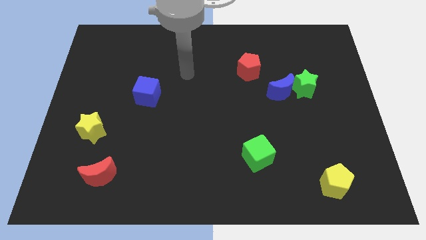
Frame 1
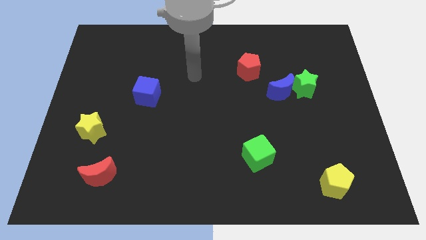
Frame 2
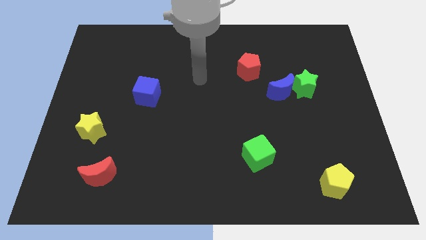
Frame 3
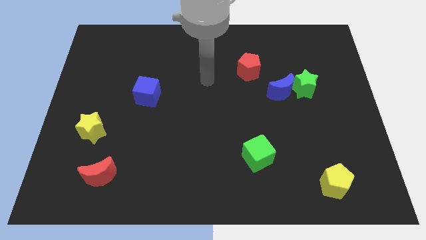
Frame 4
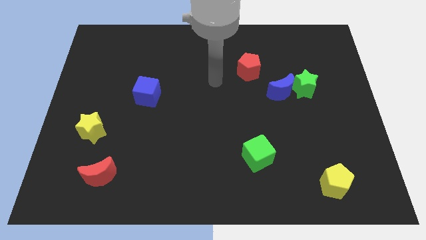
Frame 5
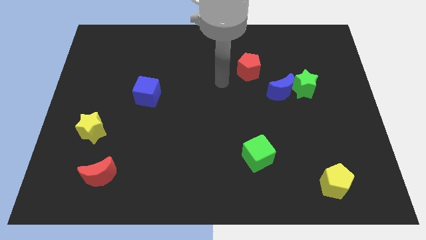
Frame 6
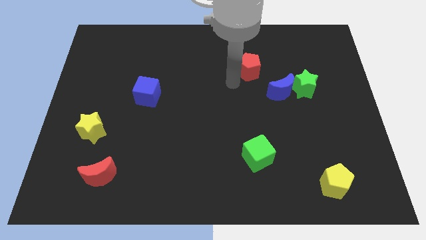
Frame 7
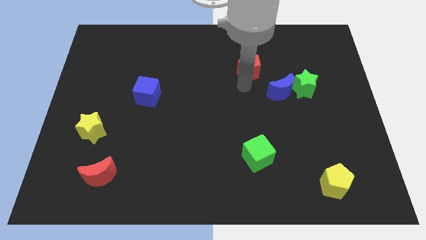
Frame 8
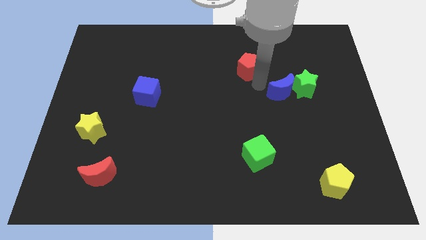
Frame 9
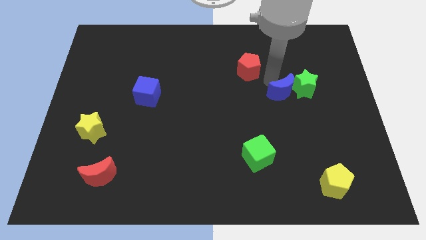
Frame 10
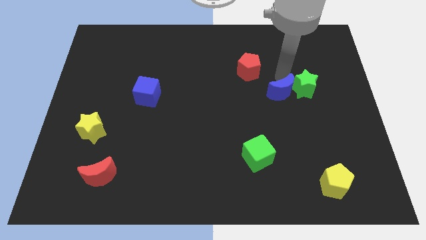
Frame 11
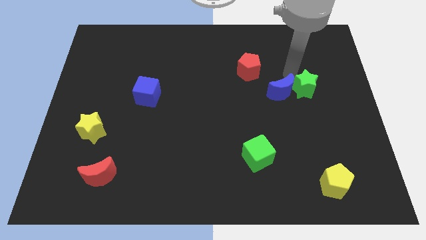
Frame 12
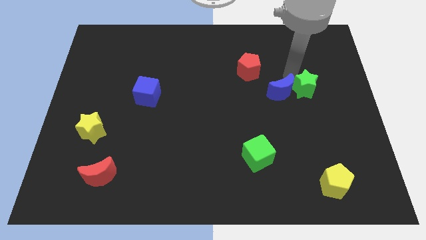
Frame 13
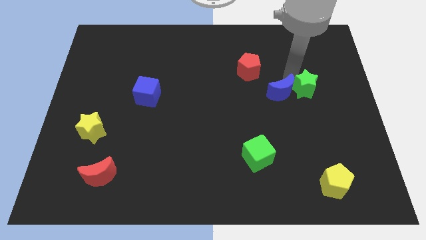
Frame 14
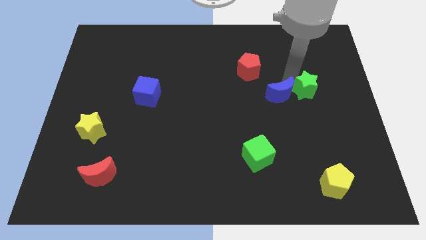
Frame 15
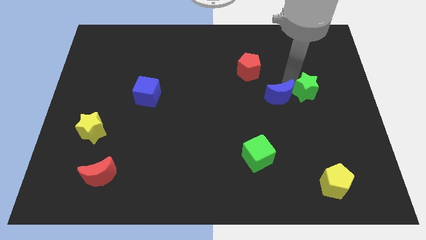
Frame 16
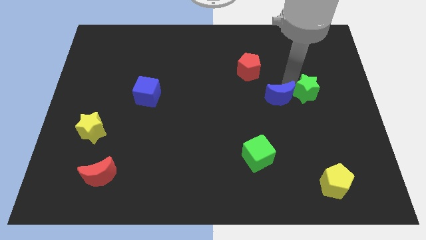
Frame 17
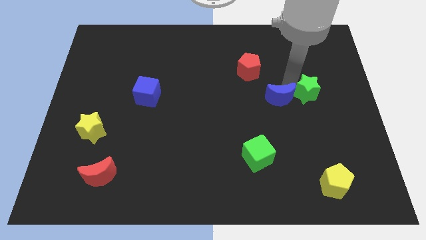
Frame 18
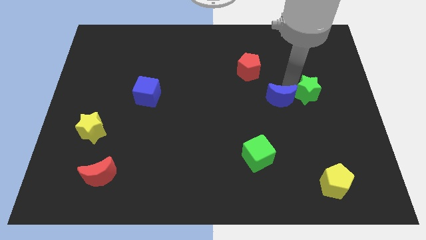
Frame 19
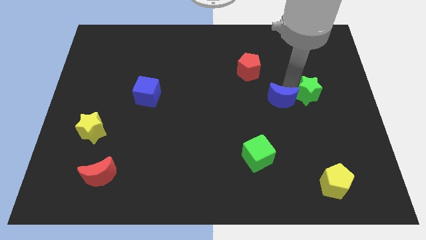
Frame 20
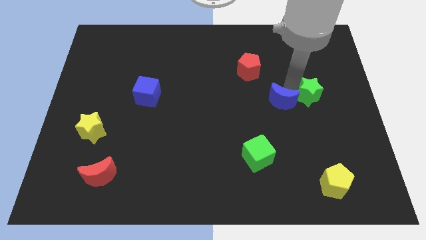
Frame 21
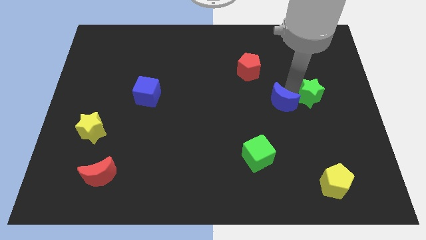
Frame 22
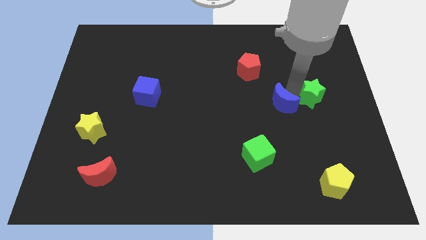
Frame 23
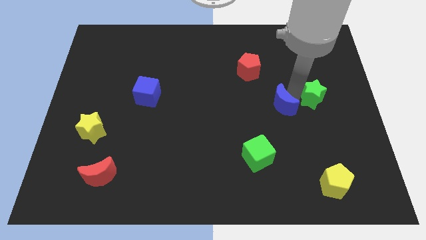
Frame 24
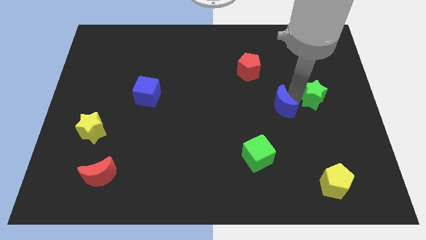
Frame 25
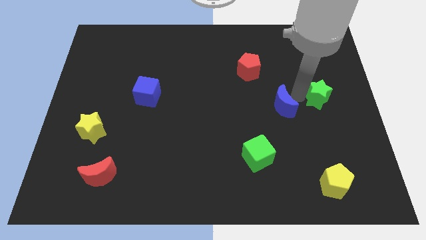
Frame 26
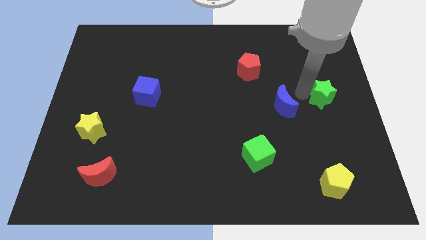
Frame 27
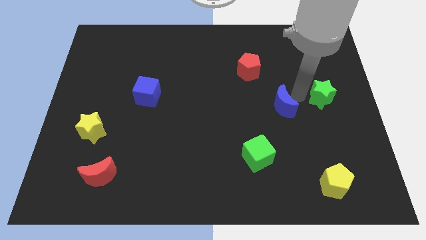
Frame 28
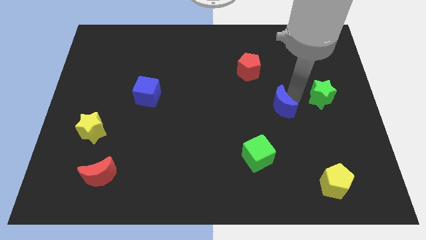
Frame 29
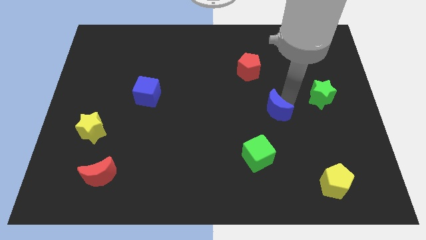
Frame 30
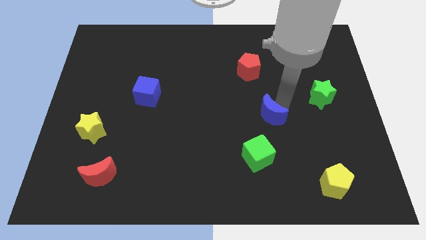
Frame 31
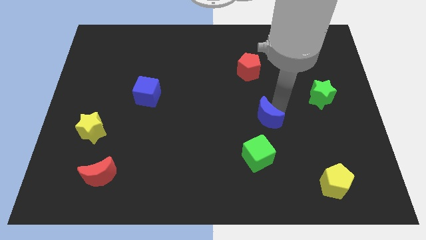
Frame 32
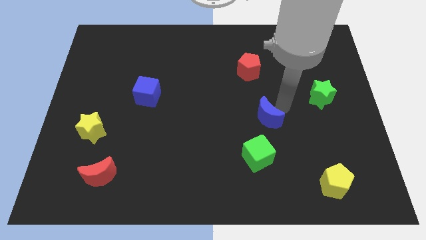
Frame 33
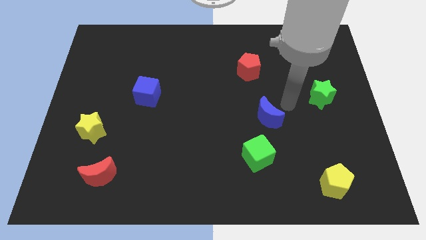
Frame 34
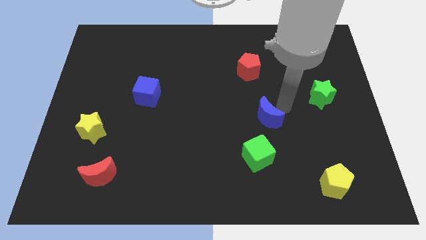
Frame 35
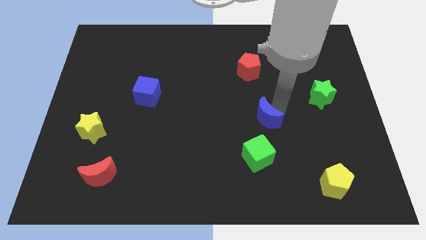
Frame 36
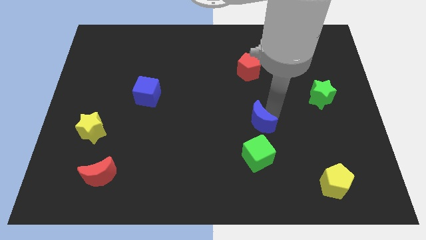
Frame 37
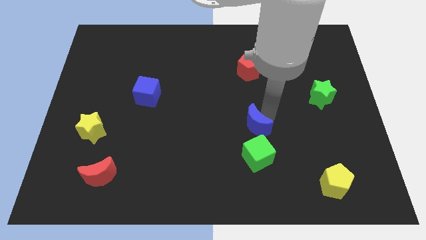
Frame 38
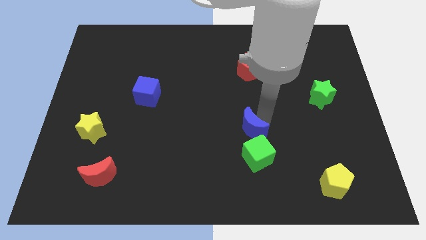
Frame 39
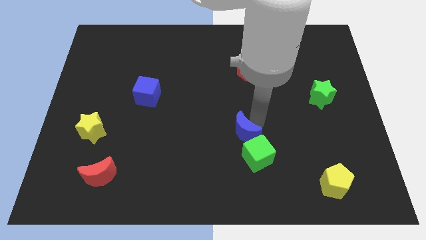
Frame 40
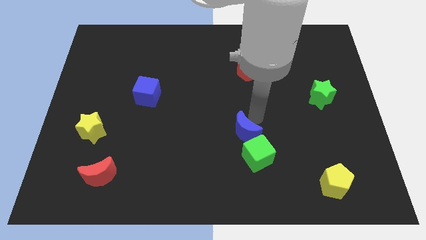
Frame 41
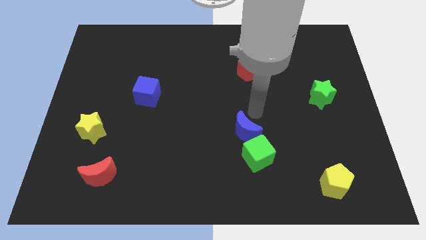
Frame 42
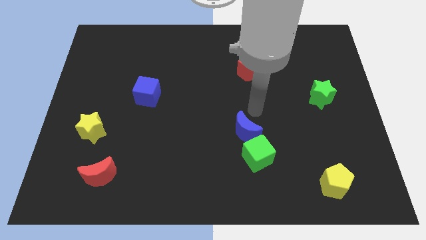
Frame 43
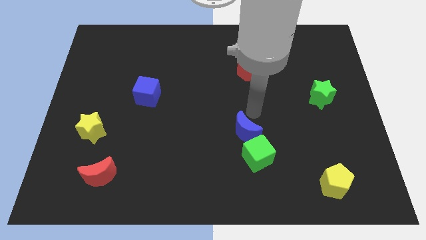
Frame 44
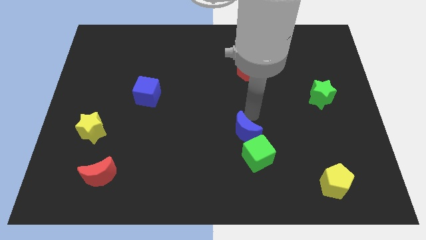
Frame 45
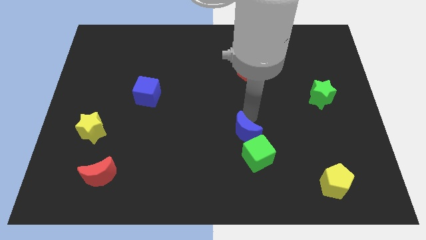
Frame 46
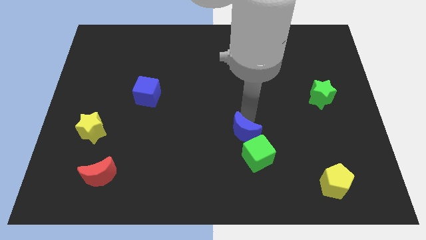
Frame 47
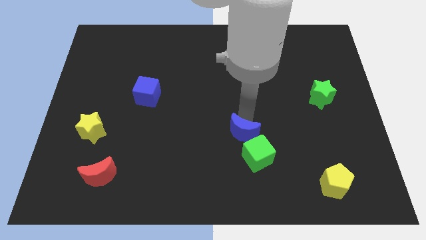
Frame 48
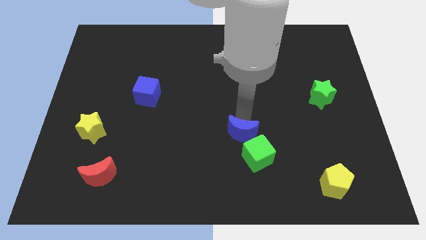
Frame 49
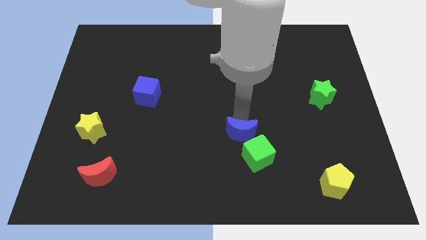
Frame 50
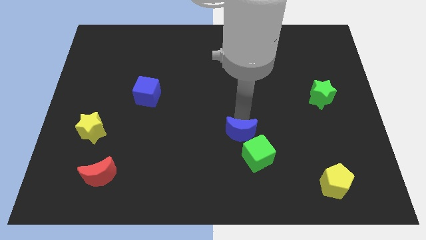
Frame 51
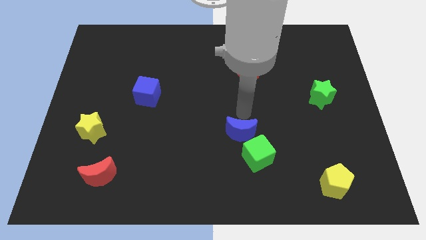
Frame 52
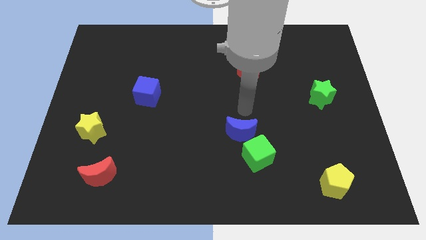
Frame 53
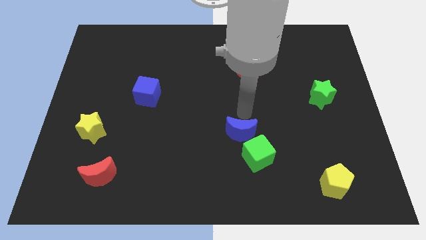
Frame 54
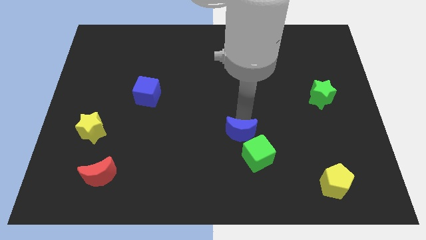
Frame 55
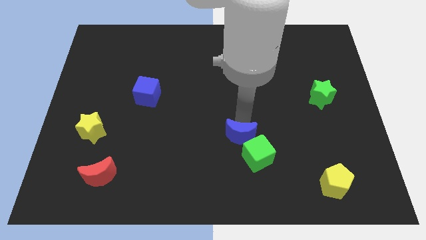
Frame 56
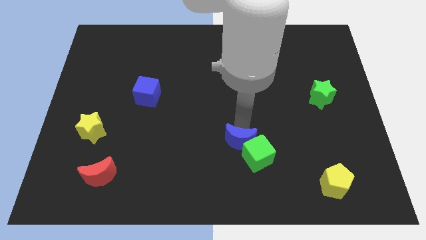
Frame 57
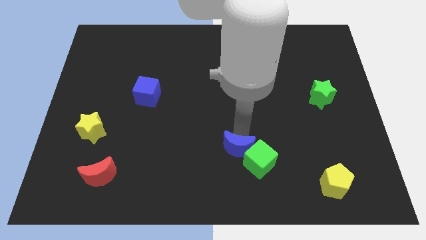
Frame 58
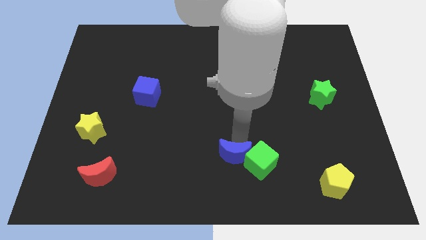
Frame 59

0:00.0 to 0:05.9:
put the blue moon to the bottom
